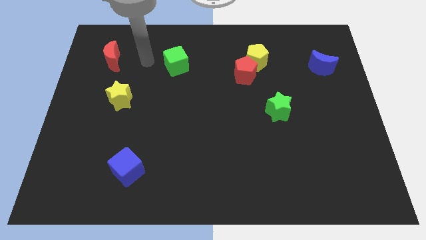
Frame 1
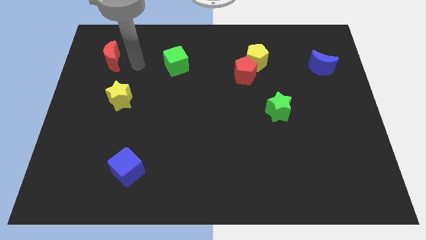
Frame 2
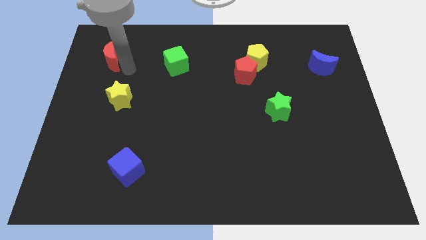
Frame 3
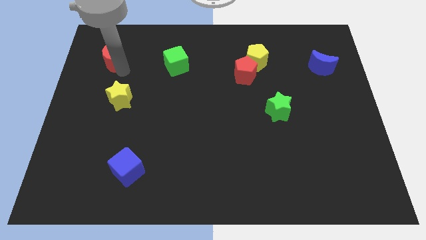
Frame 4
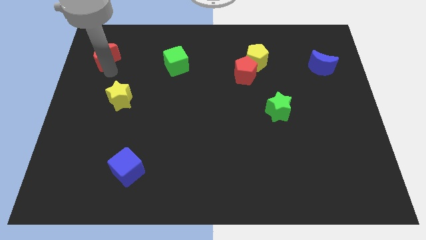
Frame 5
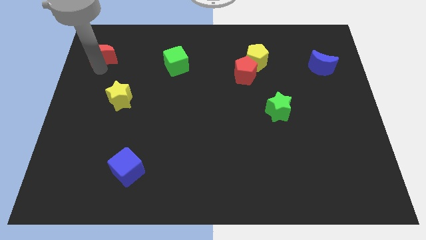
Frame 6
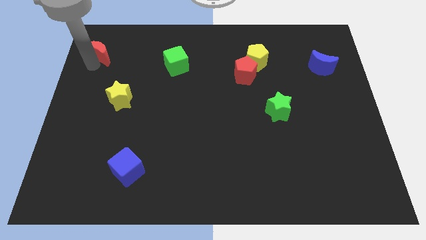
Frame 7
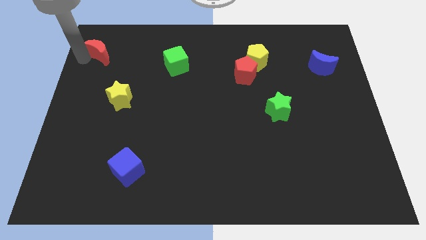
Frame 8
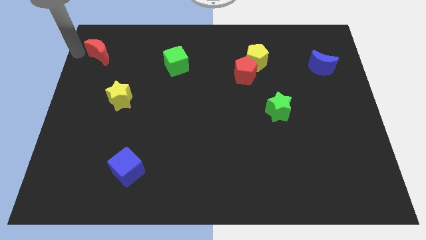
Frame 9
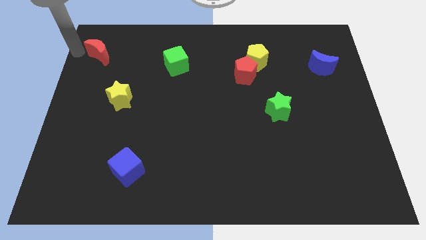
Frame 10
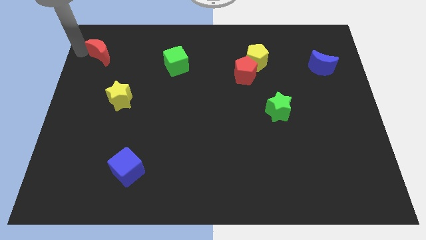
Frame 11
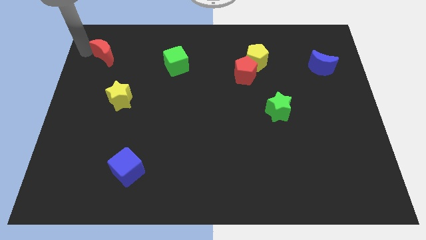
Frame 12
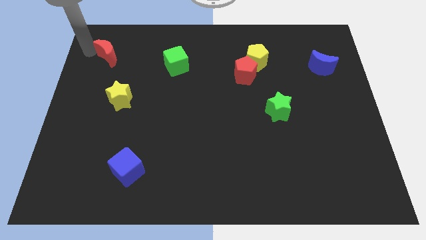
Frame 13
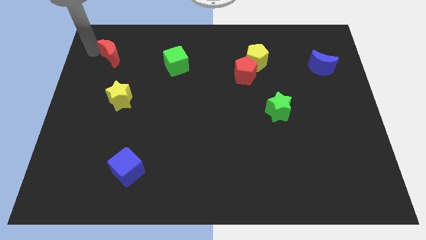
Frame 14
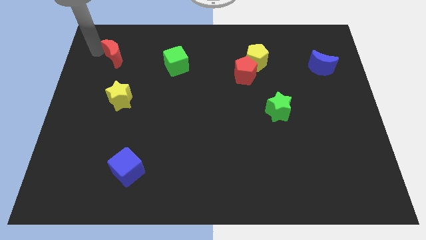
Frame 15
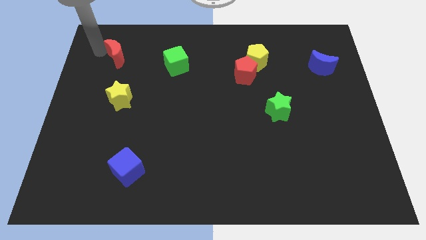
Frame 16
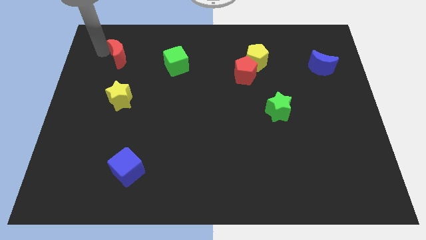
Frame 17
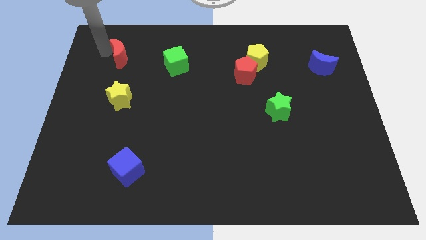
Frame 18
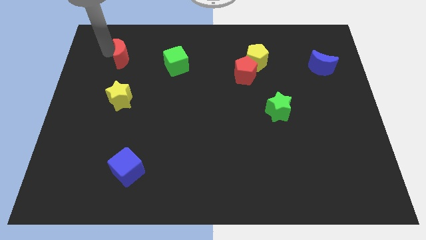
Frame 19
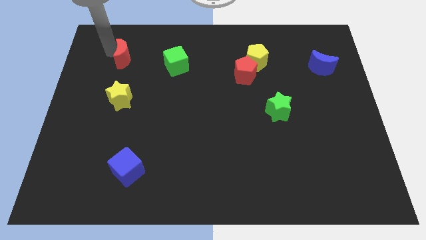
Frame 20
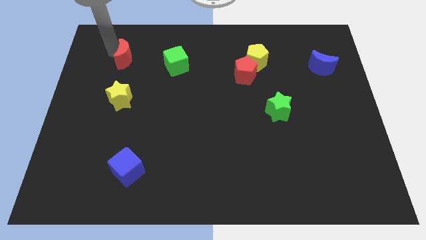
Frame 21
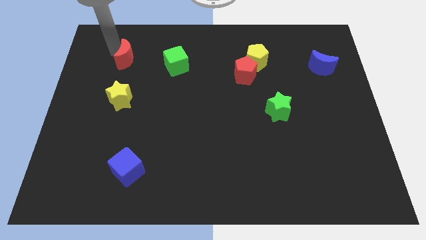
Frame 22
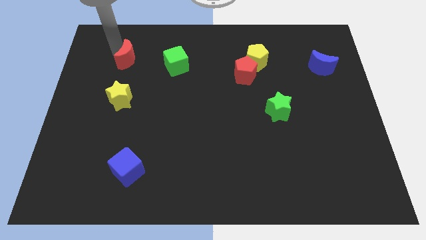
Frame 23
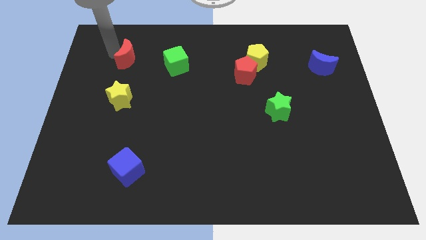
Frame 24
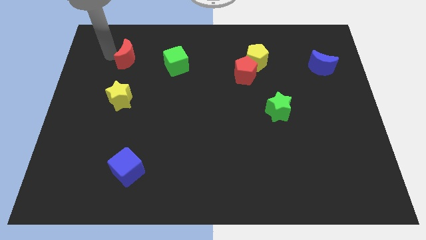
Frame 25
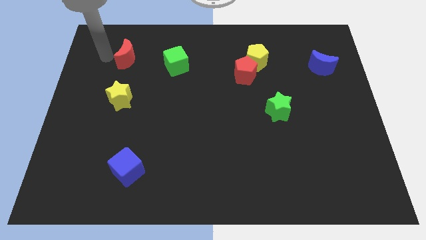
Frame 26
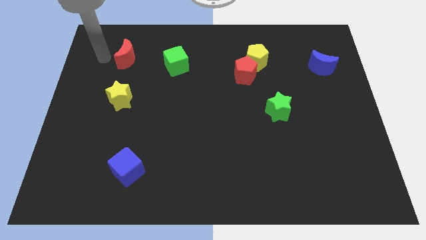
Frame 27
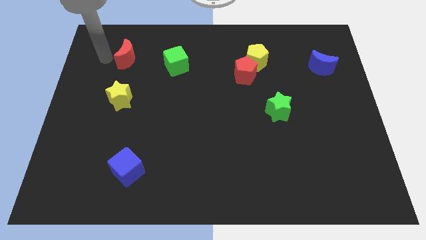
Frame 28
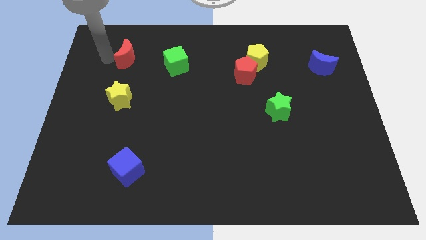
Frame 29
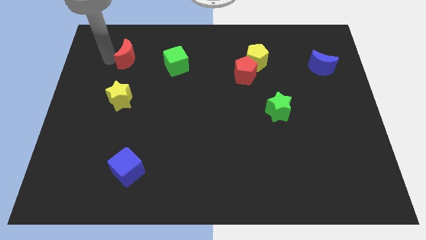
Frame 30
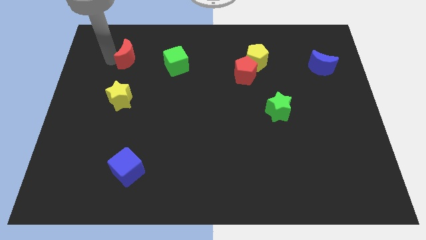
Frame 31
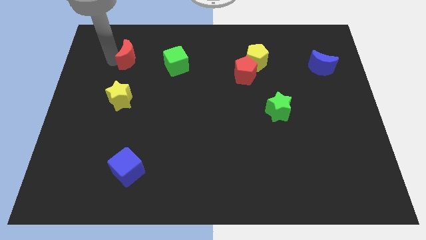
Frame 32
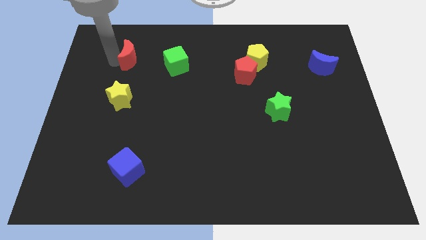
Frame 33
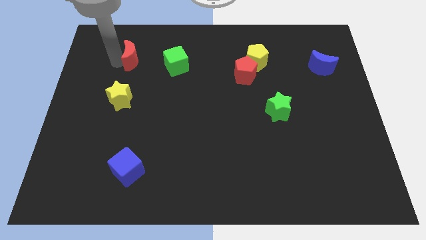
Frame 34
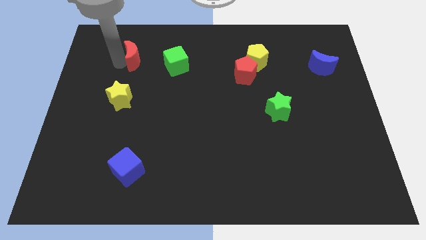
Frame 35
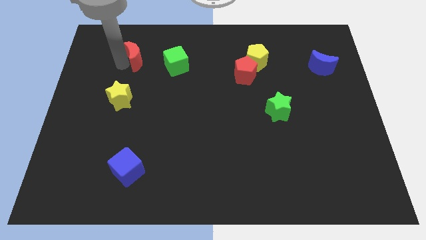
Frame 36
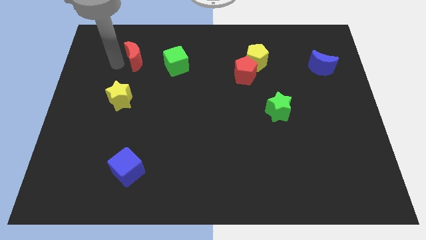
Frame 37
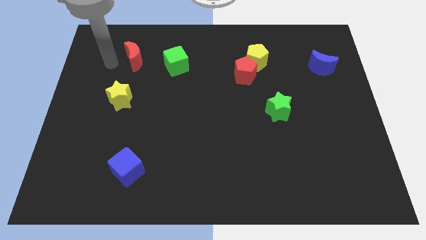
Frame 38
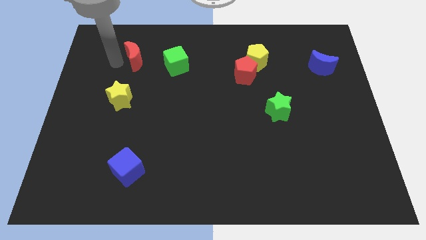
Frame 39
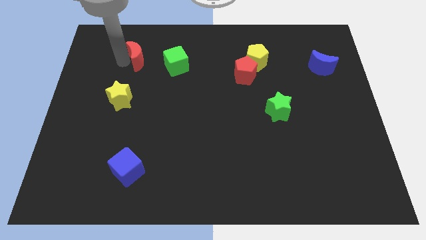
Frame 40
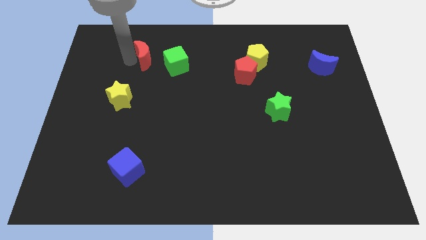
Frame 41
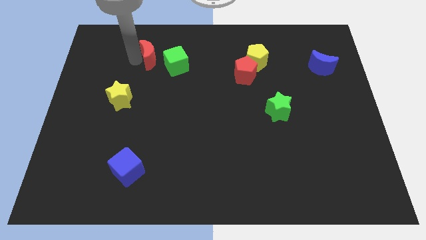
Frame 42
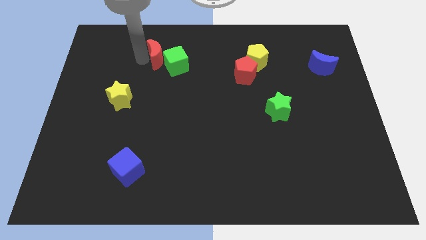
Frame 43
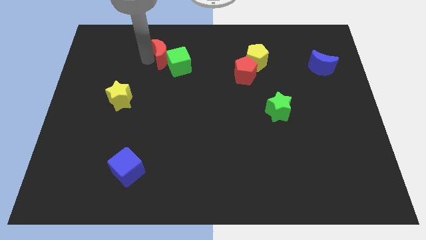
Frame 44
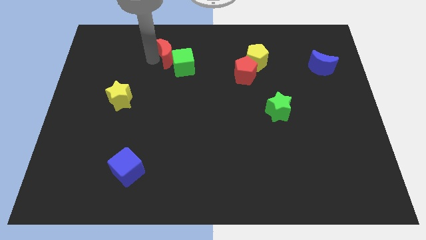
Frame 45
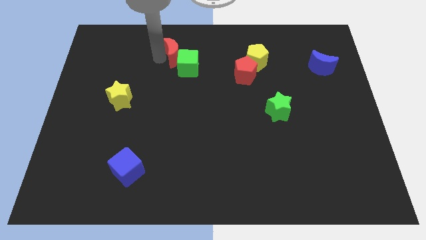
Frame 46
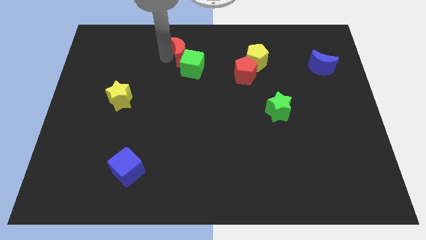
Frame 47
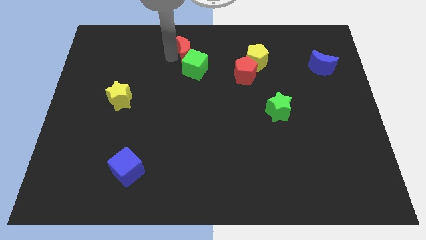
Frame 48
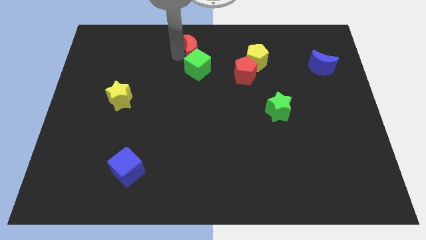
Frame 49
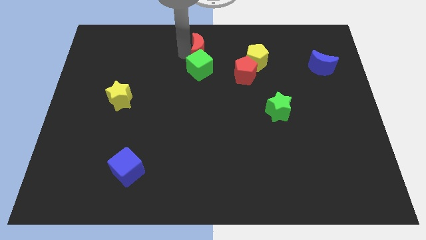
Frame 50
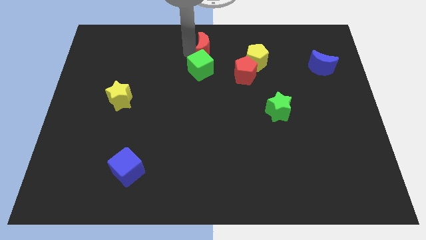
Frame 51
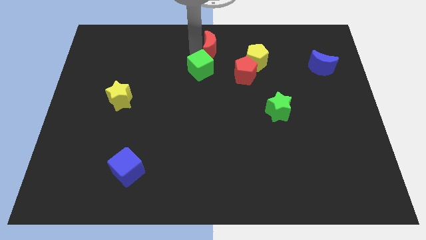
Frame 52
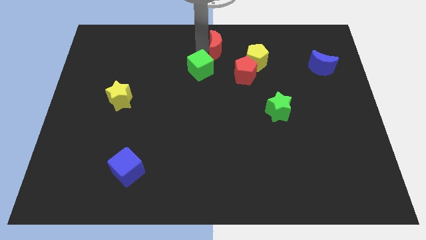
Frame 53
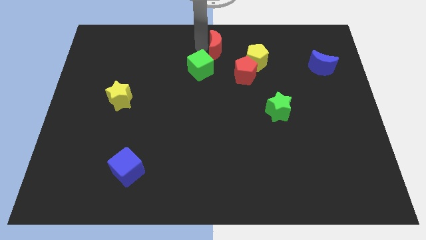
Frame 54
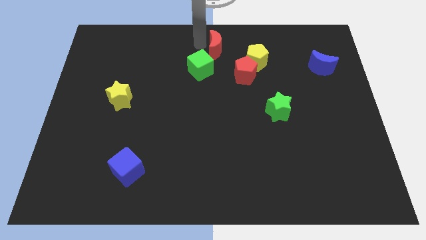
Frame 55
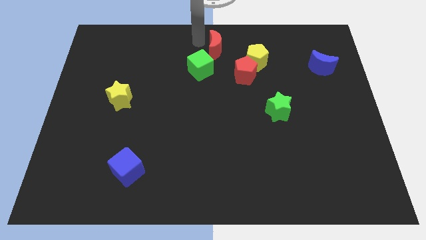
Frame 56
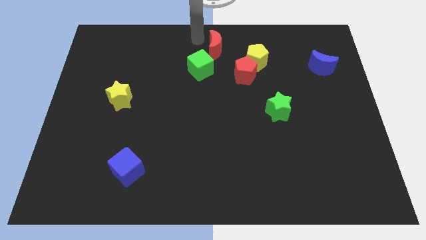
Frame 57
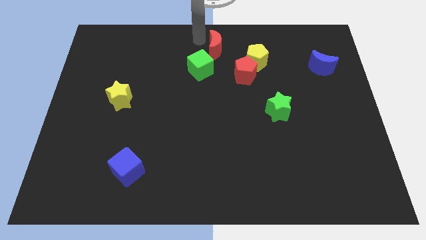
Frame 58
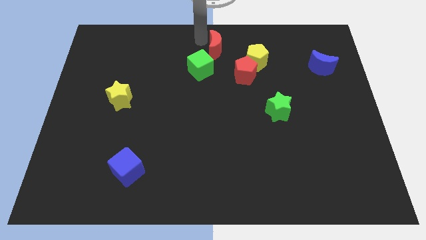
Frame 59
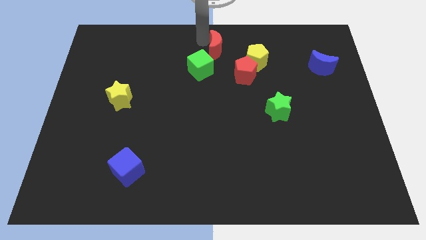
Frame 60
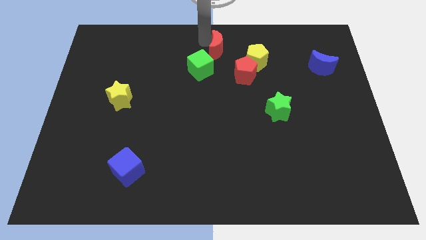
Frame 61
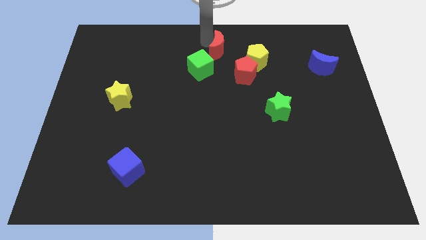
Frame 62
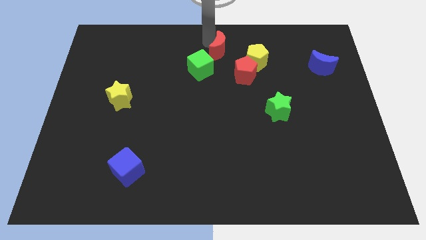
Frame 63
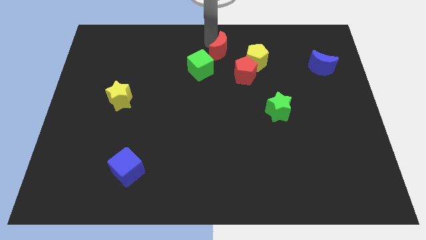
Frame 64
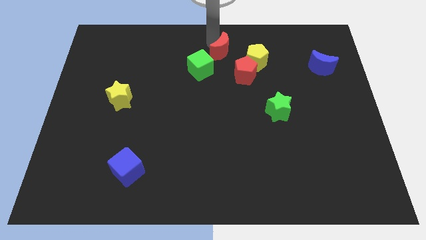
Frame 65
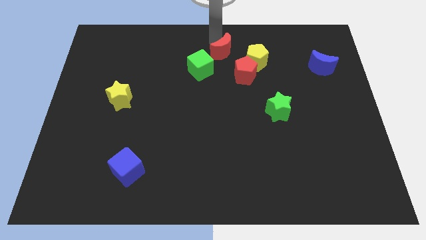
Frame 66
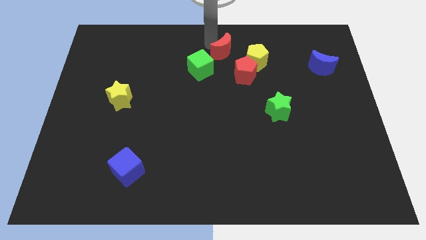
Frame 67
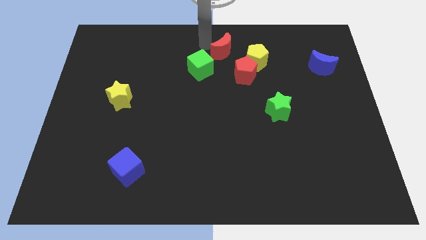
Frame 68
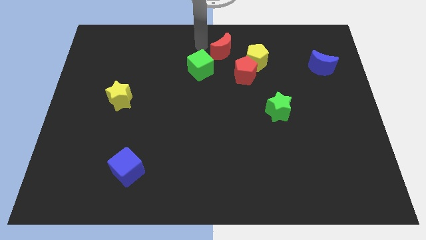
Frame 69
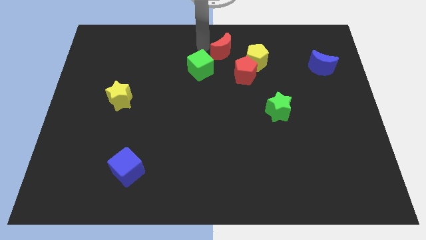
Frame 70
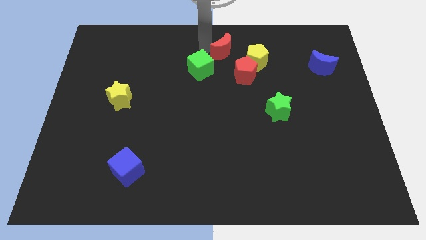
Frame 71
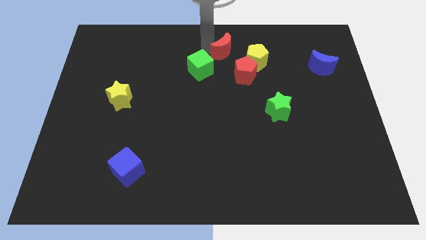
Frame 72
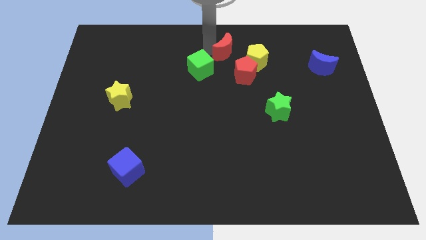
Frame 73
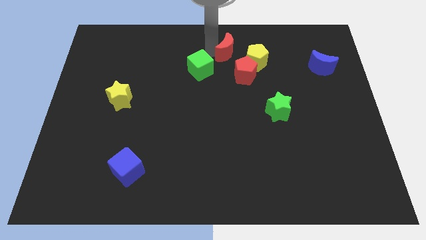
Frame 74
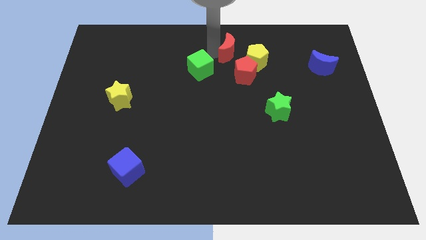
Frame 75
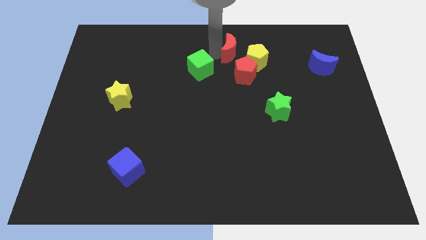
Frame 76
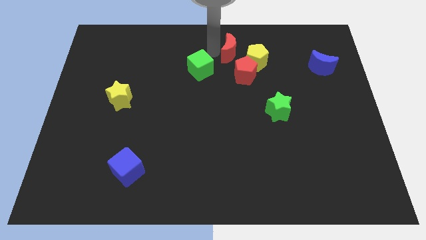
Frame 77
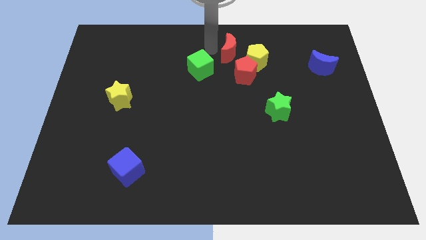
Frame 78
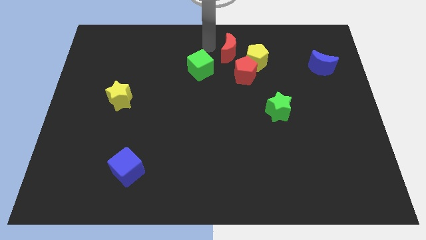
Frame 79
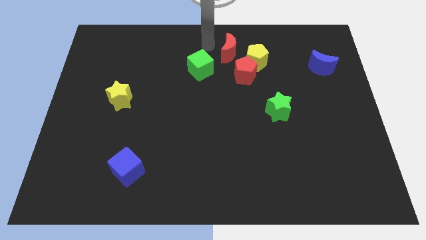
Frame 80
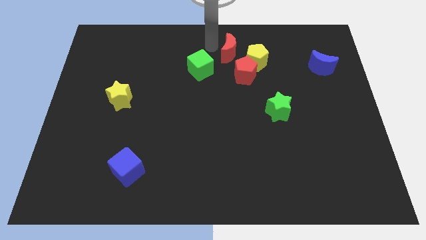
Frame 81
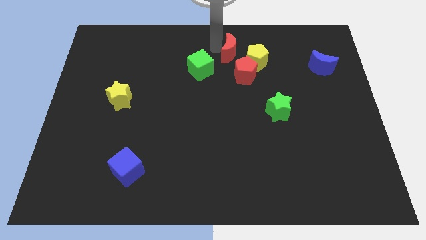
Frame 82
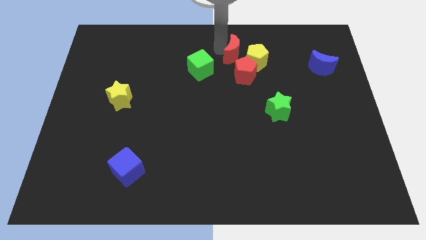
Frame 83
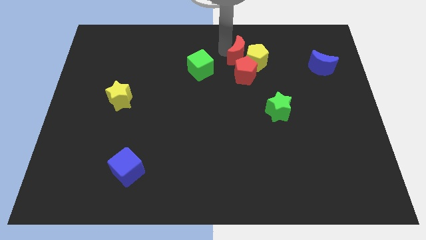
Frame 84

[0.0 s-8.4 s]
move the red moon next to the yellow pentagon
